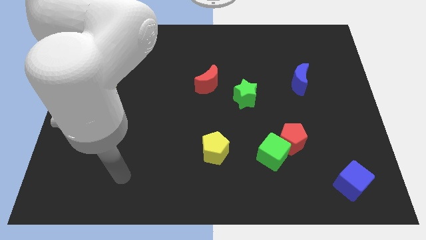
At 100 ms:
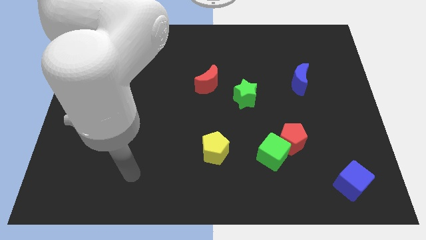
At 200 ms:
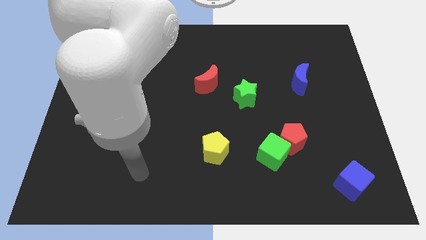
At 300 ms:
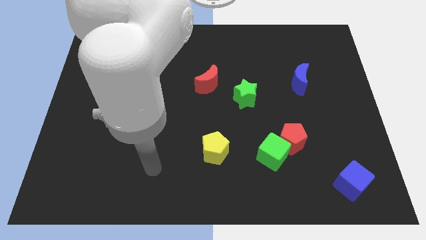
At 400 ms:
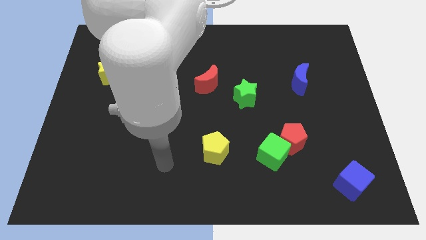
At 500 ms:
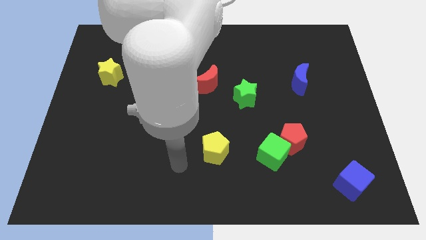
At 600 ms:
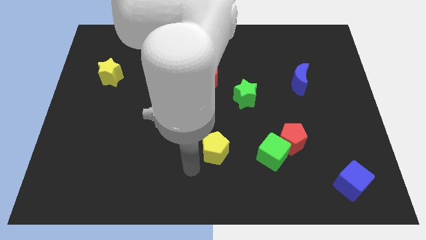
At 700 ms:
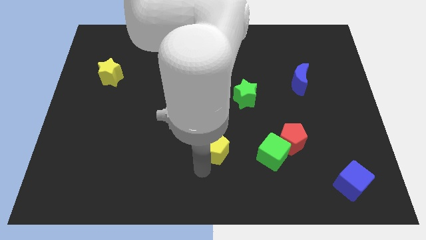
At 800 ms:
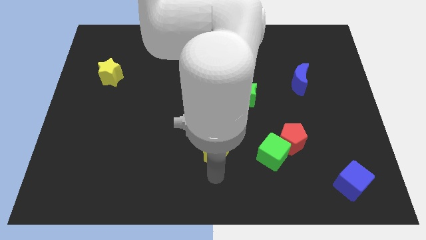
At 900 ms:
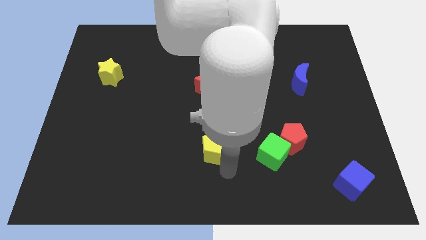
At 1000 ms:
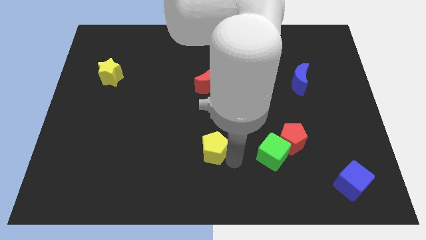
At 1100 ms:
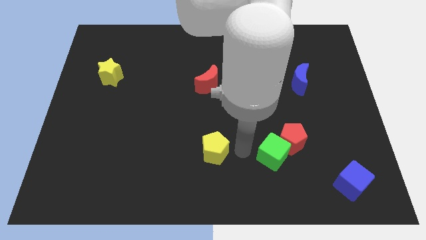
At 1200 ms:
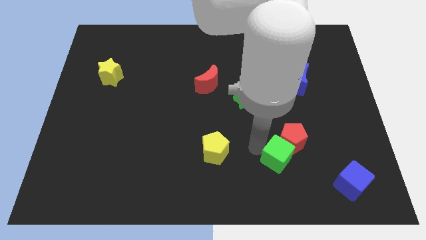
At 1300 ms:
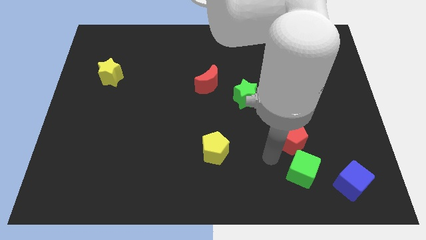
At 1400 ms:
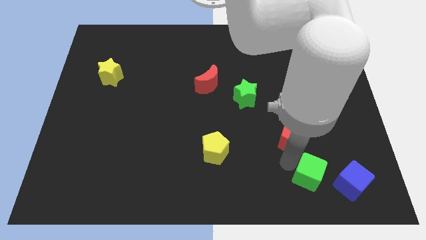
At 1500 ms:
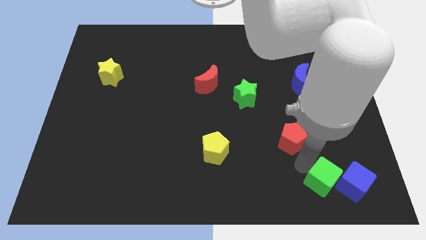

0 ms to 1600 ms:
move the red pentagon away from the green cube

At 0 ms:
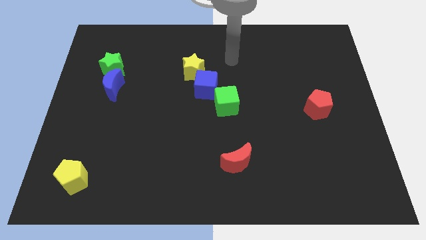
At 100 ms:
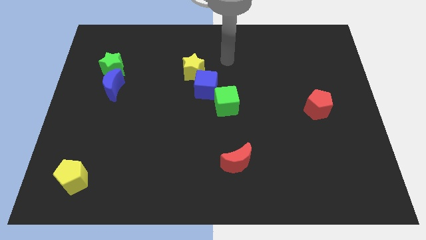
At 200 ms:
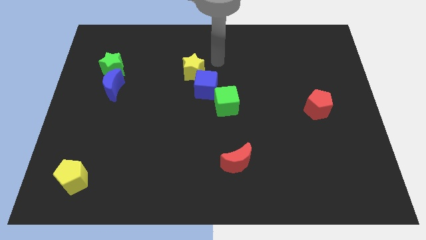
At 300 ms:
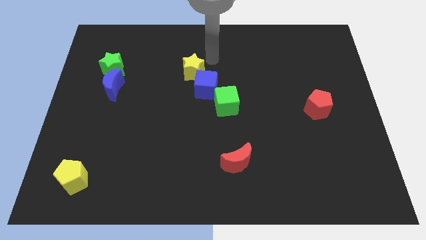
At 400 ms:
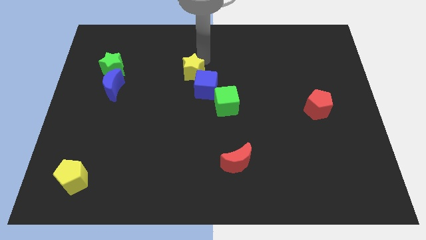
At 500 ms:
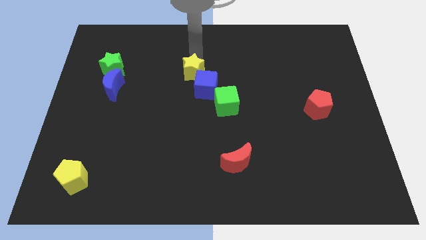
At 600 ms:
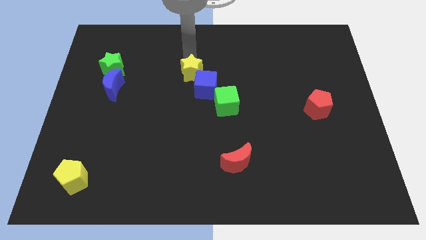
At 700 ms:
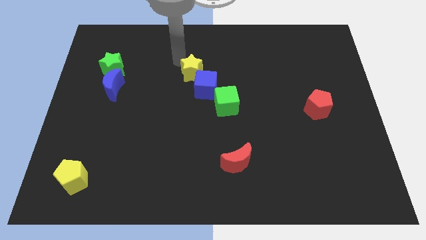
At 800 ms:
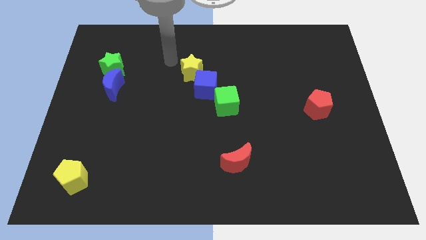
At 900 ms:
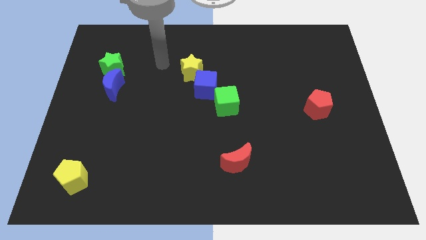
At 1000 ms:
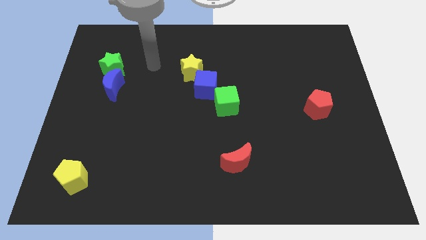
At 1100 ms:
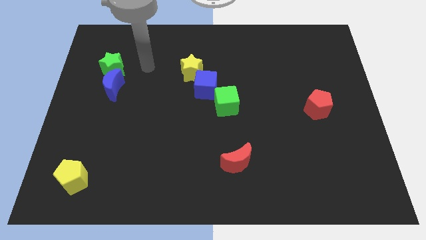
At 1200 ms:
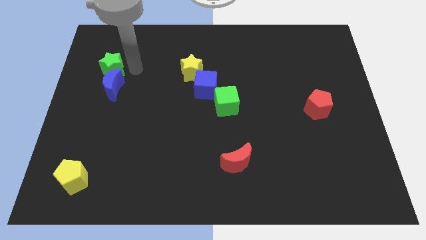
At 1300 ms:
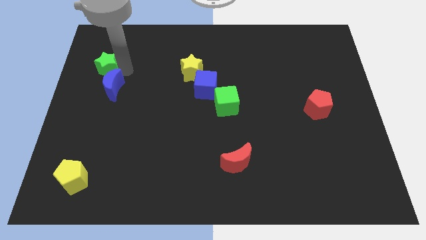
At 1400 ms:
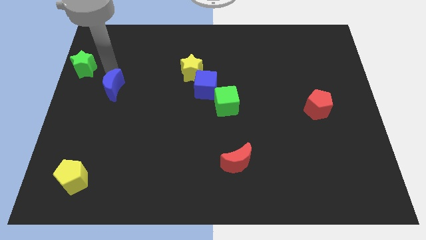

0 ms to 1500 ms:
move the blue moon away from the green star

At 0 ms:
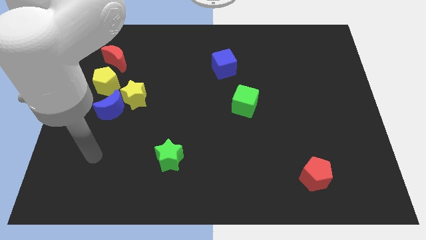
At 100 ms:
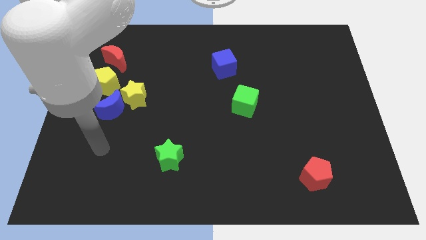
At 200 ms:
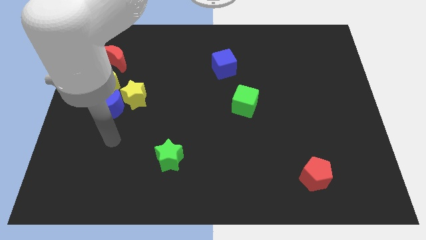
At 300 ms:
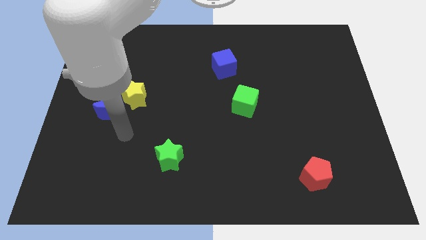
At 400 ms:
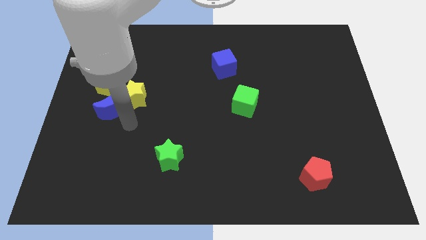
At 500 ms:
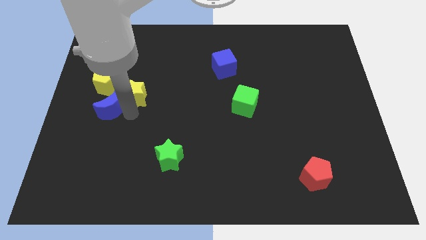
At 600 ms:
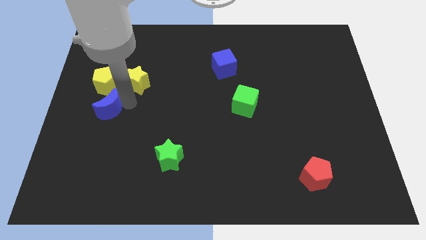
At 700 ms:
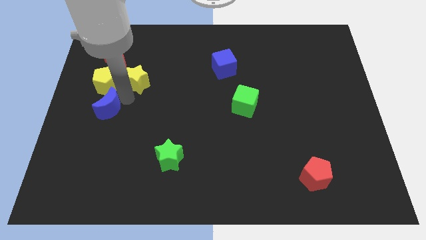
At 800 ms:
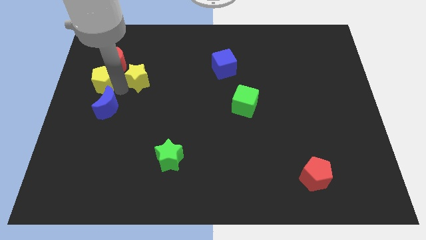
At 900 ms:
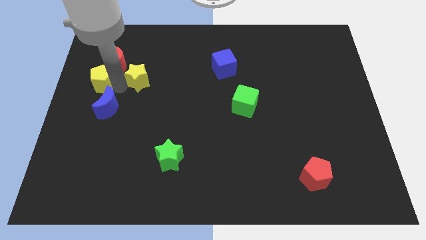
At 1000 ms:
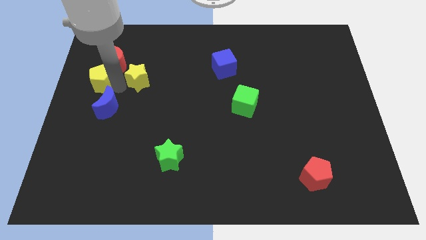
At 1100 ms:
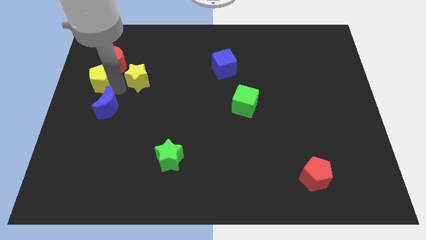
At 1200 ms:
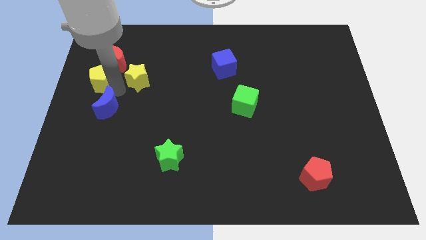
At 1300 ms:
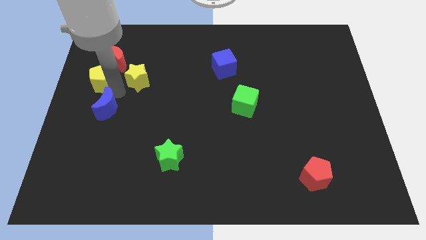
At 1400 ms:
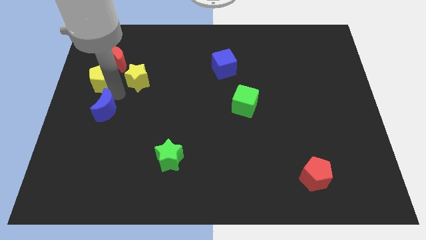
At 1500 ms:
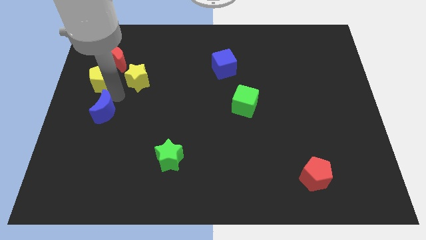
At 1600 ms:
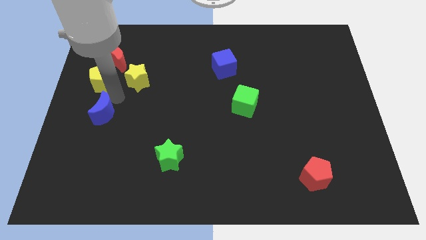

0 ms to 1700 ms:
move the blue moon away from the yellow star and yellow pentagon

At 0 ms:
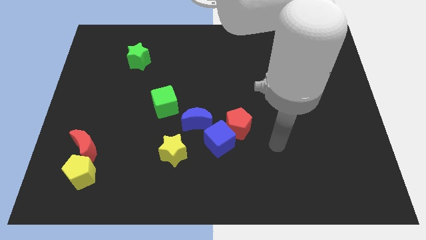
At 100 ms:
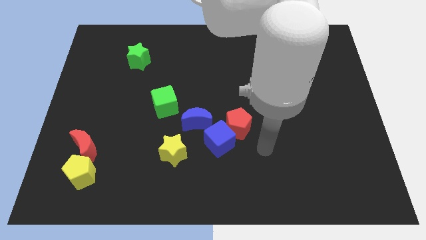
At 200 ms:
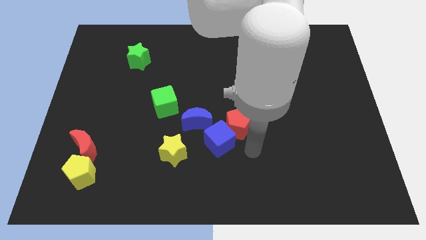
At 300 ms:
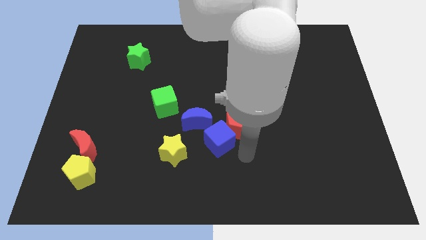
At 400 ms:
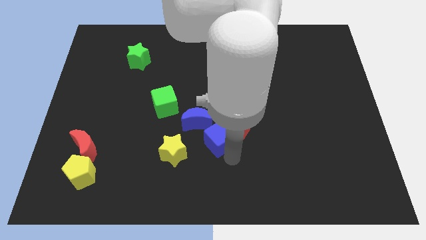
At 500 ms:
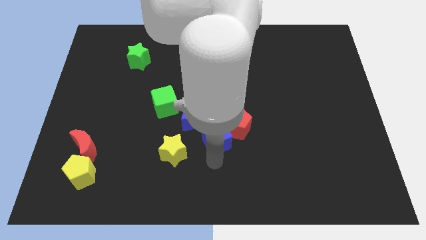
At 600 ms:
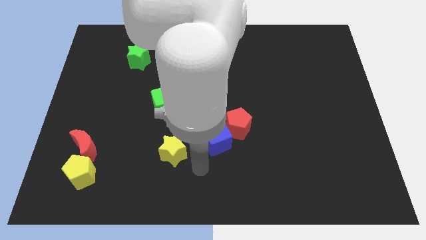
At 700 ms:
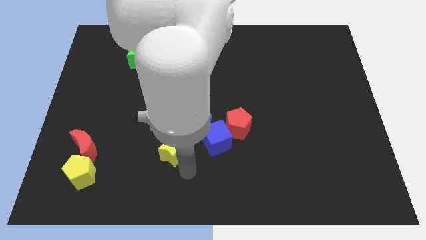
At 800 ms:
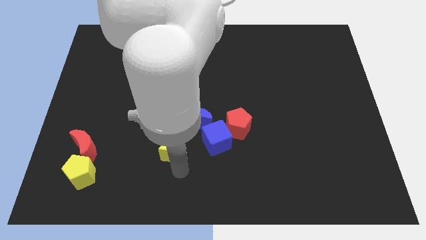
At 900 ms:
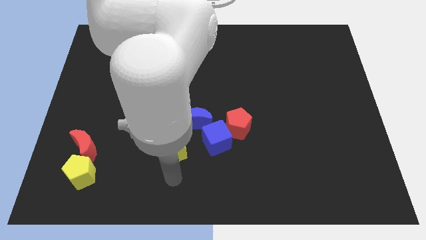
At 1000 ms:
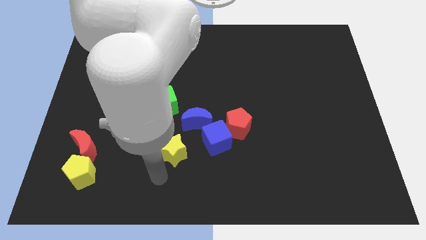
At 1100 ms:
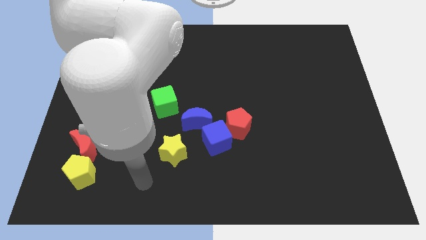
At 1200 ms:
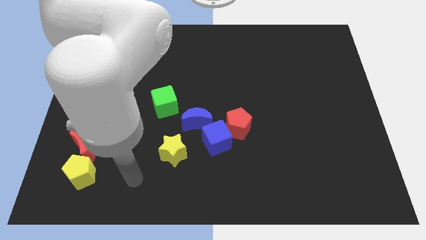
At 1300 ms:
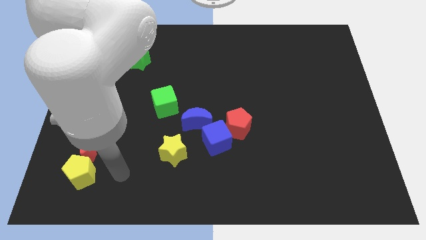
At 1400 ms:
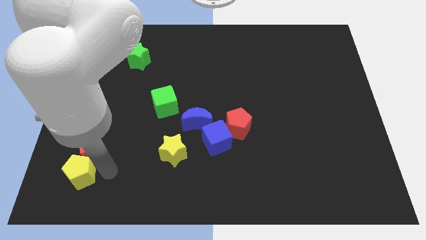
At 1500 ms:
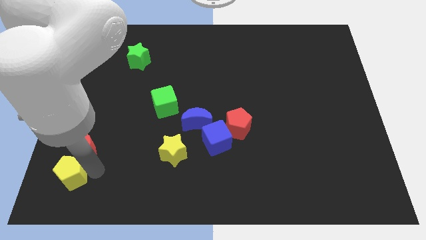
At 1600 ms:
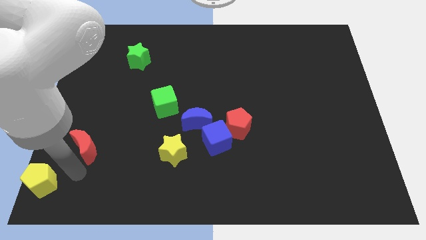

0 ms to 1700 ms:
separate the red moon from the yellow pentagon

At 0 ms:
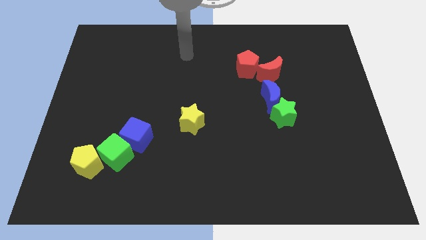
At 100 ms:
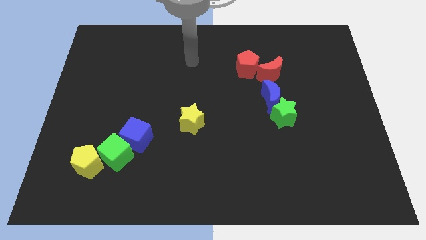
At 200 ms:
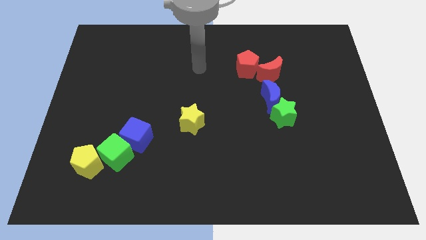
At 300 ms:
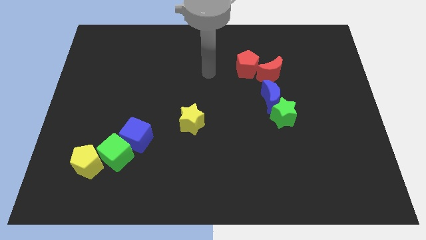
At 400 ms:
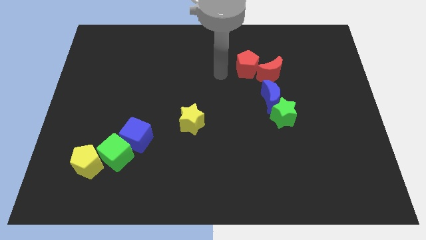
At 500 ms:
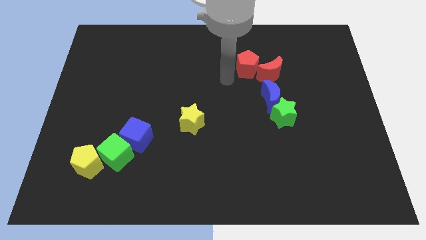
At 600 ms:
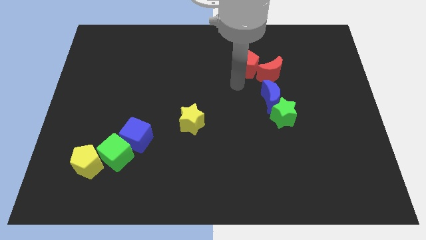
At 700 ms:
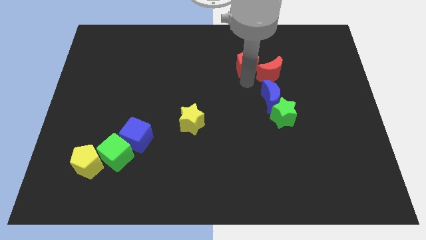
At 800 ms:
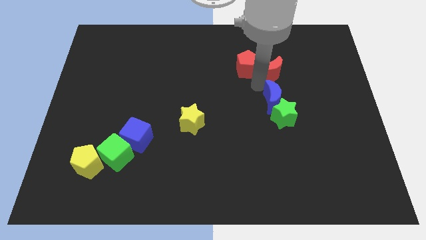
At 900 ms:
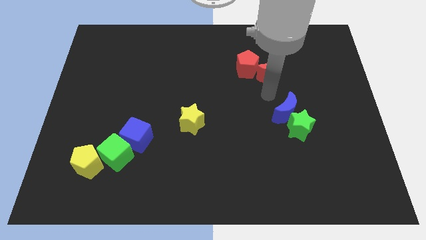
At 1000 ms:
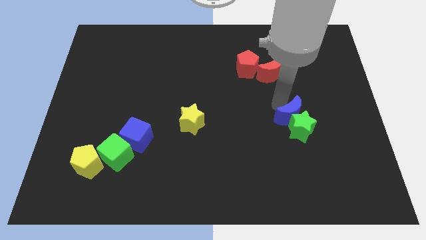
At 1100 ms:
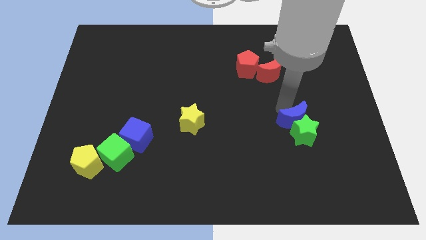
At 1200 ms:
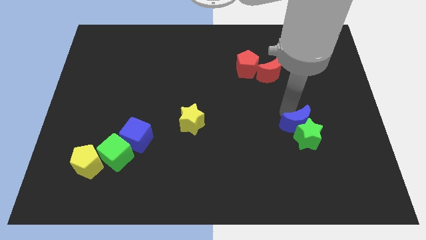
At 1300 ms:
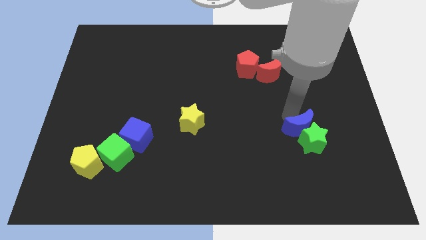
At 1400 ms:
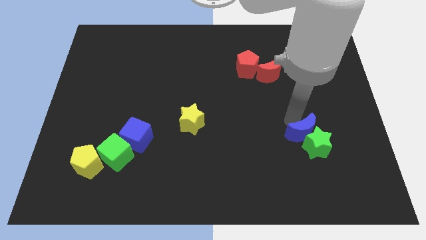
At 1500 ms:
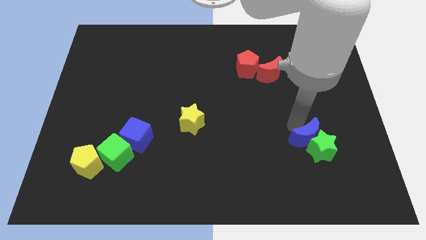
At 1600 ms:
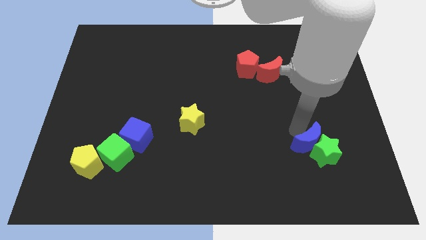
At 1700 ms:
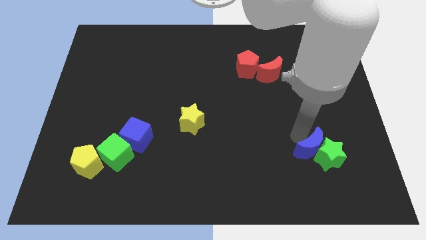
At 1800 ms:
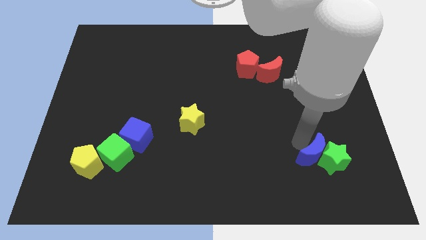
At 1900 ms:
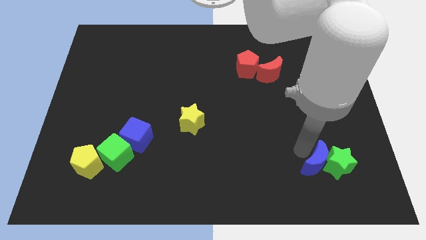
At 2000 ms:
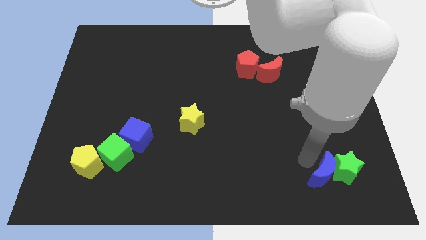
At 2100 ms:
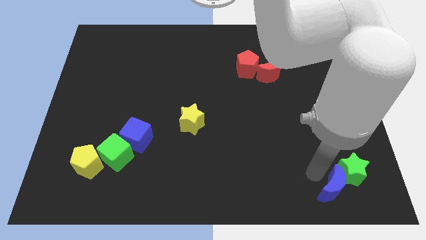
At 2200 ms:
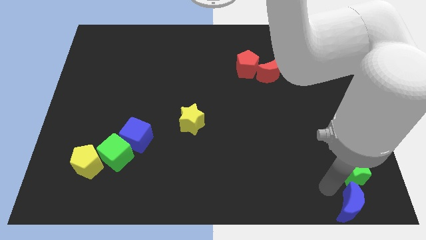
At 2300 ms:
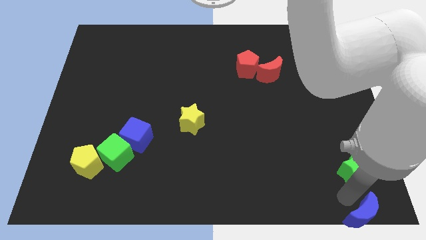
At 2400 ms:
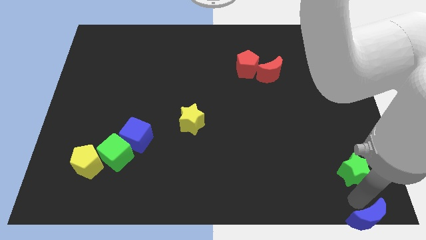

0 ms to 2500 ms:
pull the green star apart from the blue moon

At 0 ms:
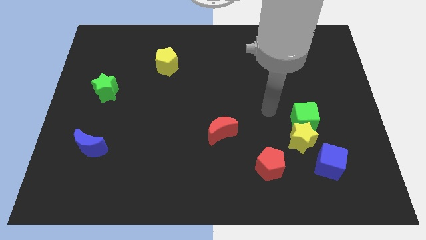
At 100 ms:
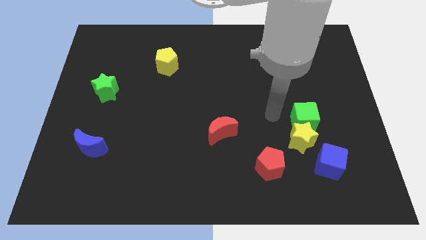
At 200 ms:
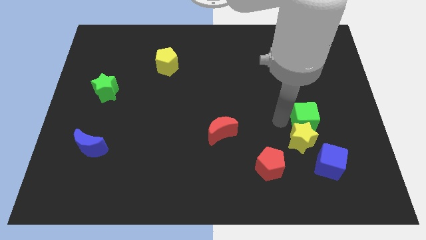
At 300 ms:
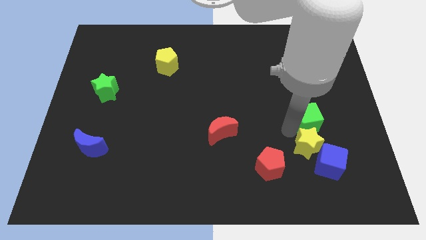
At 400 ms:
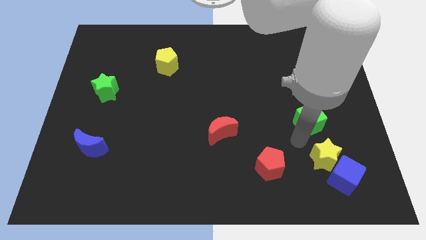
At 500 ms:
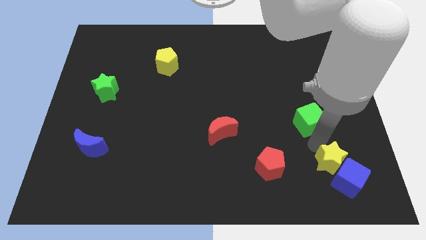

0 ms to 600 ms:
move the green cube away from the yellow star
